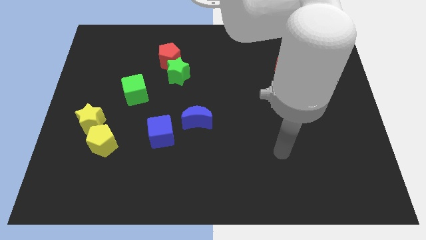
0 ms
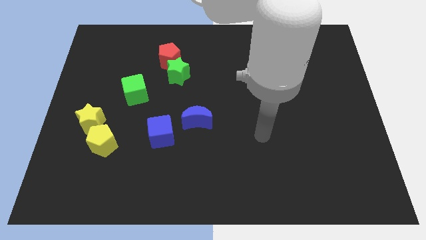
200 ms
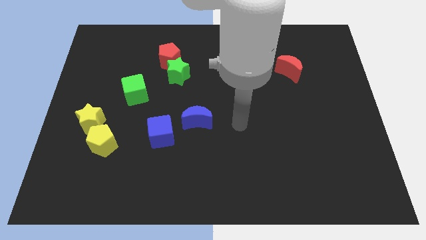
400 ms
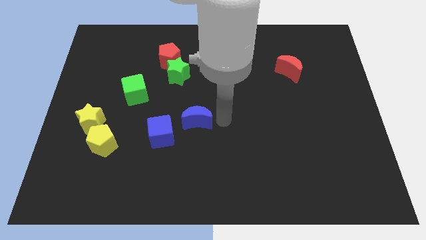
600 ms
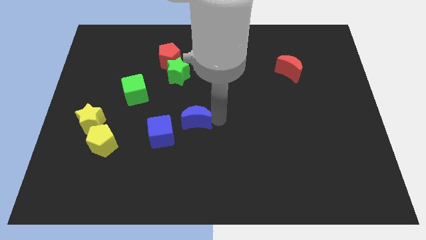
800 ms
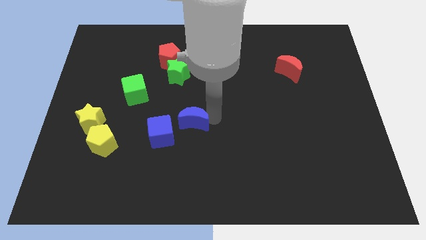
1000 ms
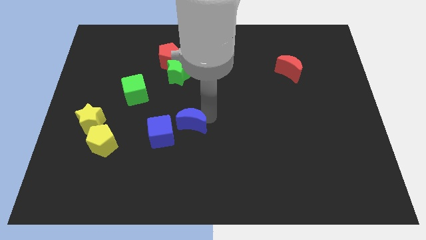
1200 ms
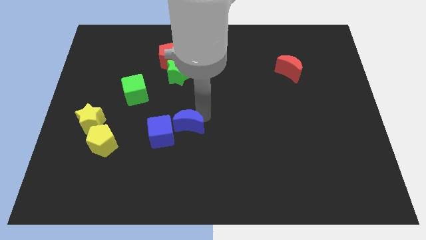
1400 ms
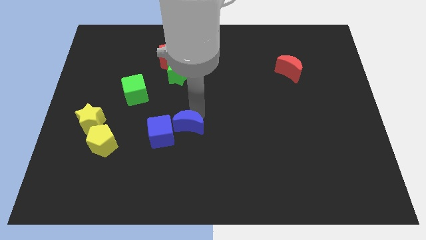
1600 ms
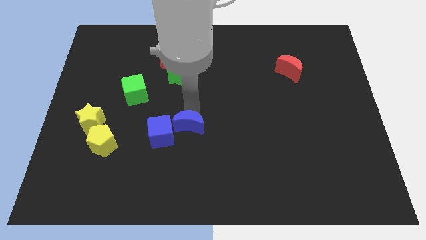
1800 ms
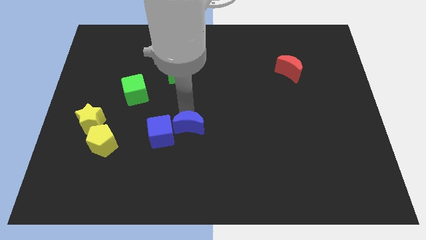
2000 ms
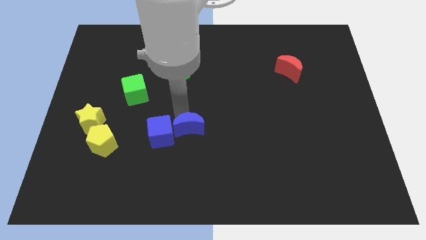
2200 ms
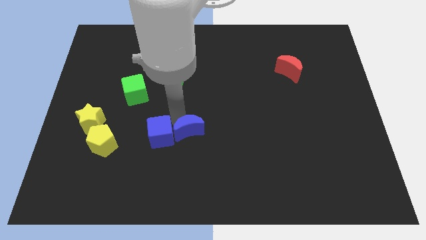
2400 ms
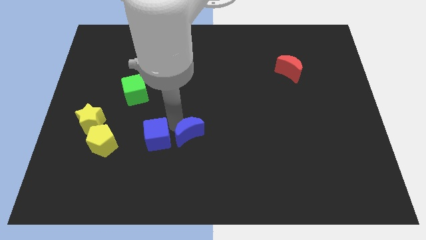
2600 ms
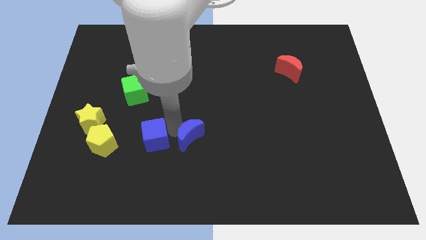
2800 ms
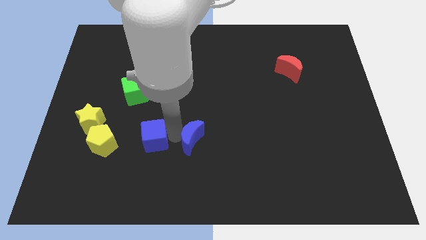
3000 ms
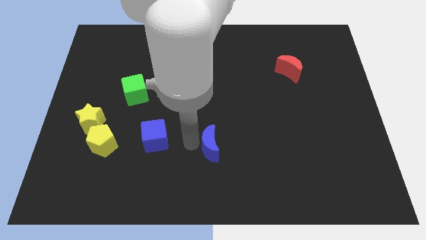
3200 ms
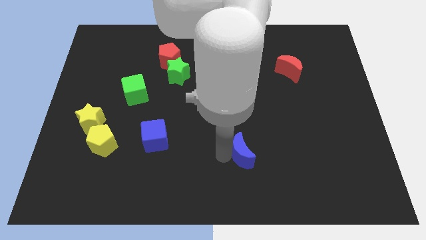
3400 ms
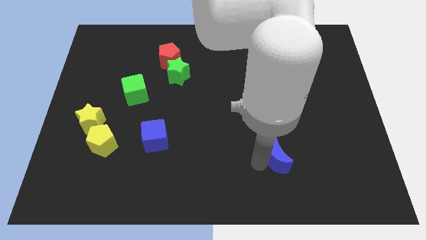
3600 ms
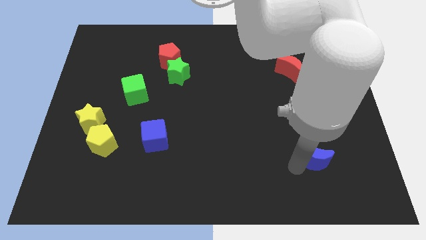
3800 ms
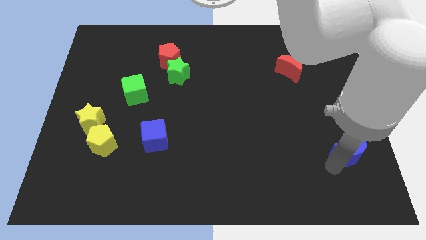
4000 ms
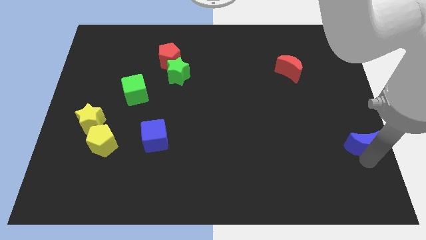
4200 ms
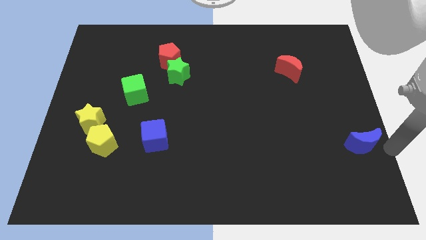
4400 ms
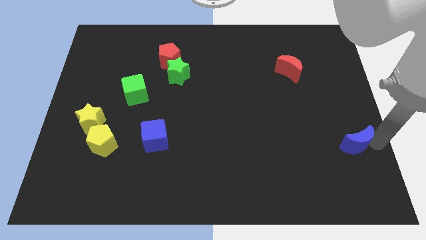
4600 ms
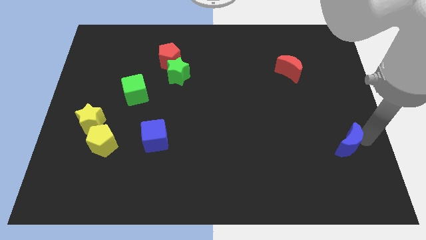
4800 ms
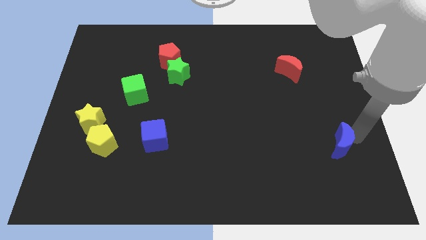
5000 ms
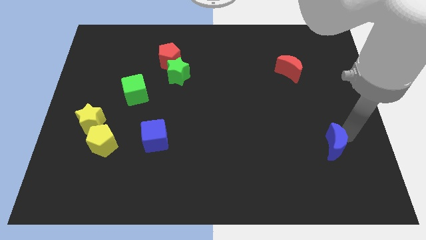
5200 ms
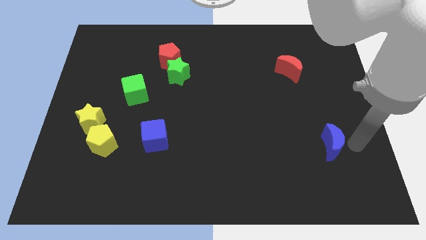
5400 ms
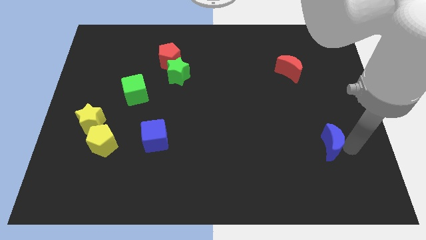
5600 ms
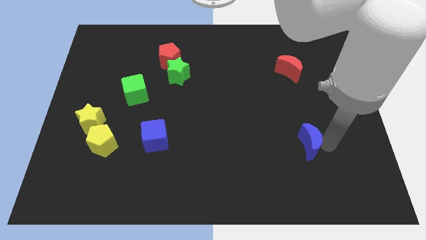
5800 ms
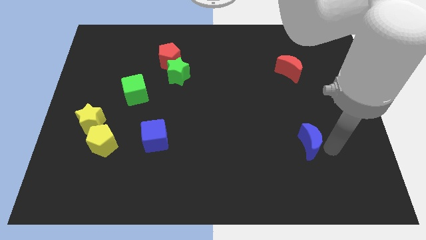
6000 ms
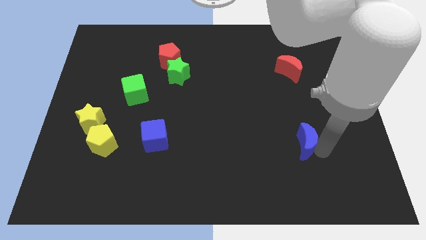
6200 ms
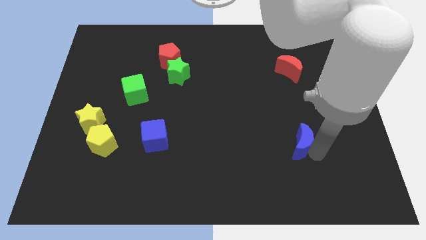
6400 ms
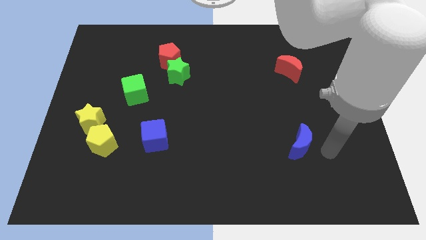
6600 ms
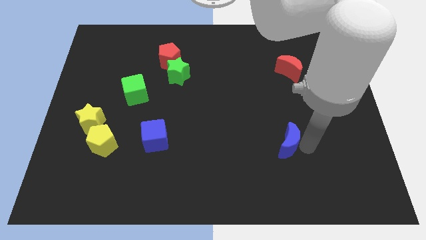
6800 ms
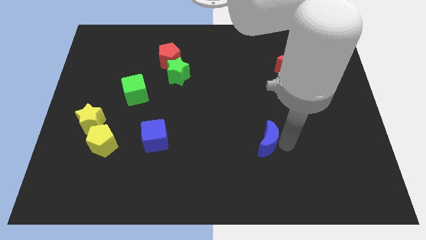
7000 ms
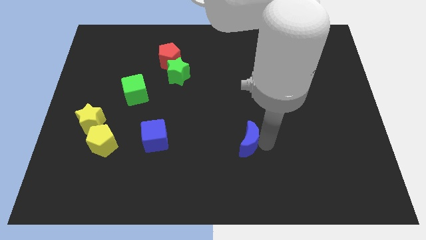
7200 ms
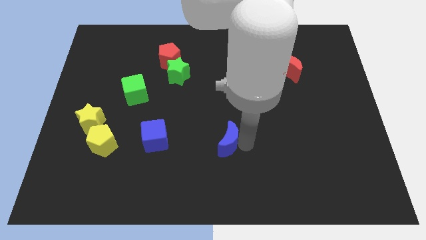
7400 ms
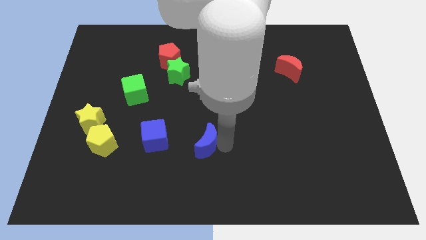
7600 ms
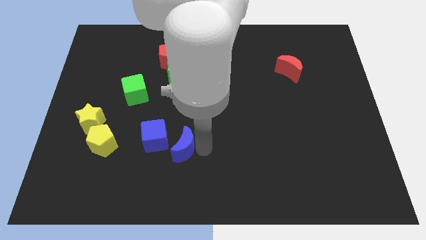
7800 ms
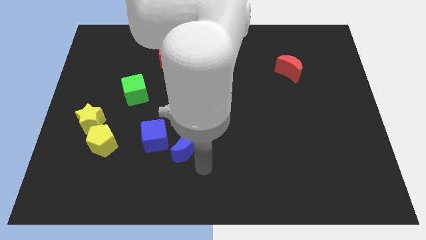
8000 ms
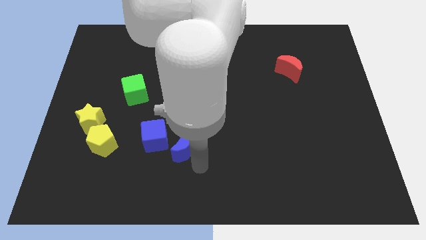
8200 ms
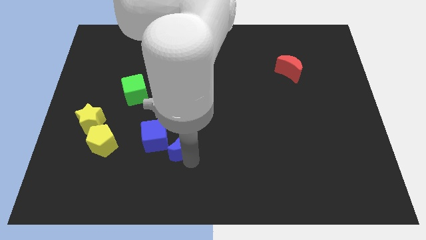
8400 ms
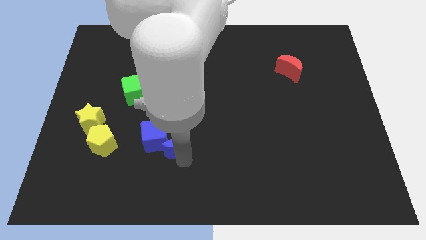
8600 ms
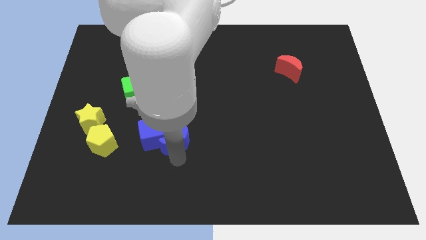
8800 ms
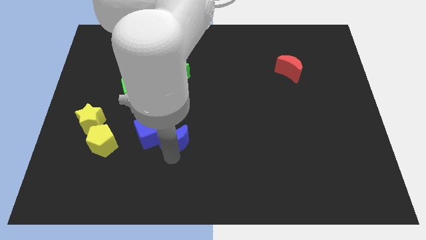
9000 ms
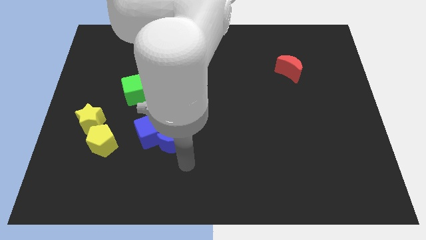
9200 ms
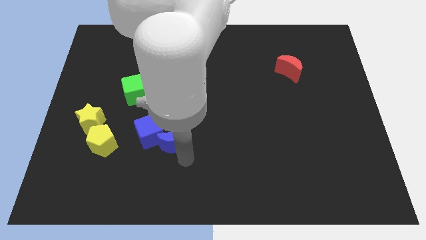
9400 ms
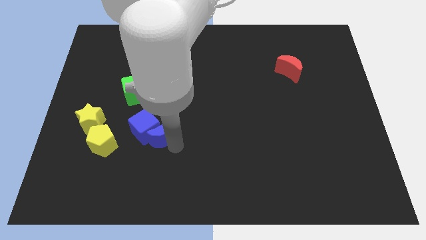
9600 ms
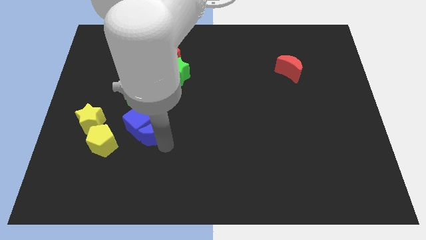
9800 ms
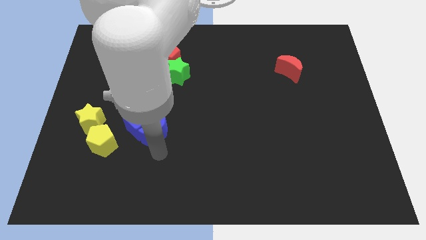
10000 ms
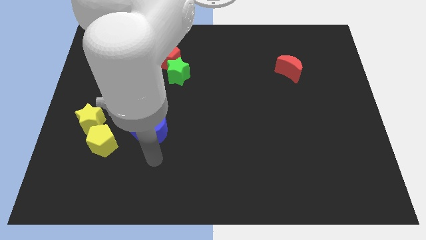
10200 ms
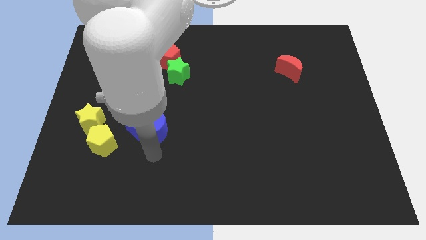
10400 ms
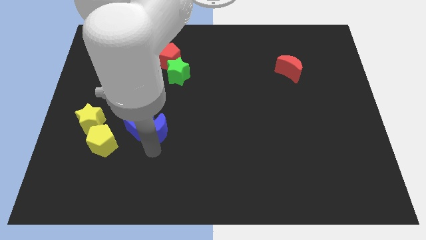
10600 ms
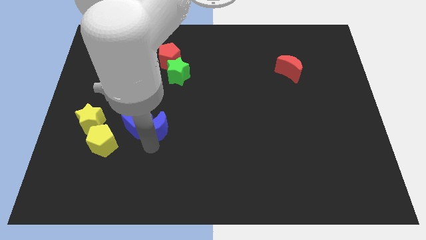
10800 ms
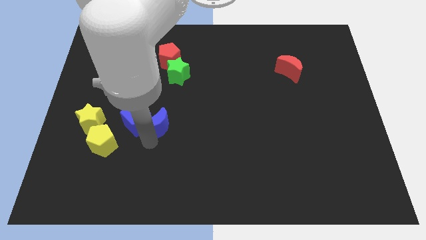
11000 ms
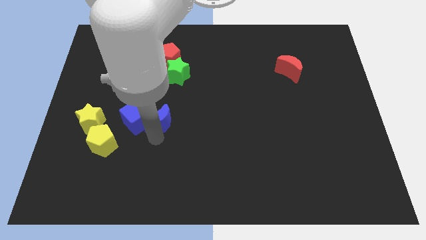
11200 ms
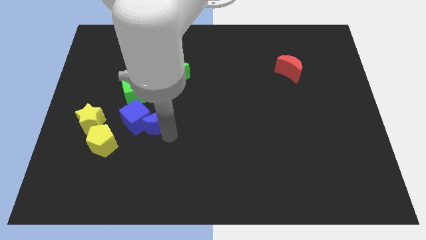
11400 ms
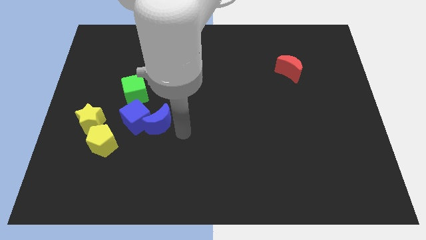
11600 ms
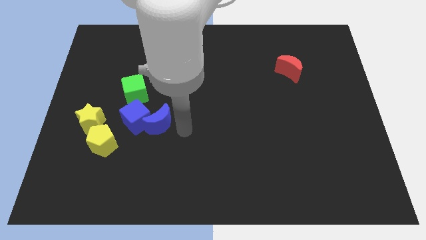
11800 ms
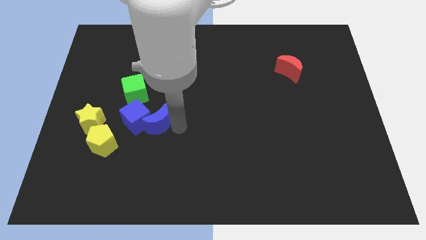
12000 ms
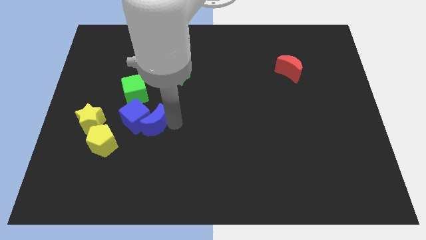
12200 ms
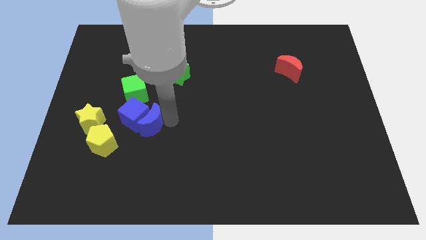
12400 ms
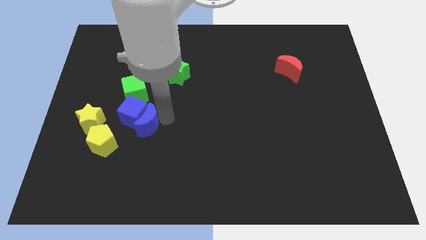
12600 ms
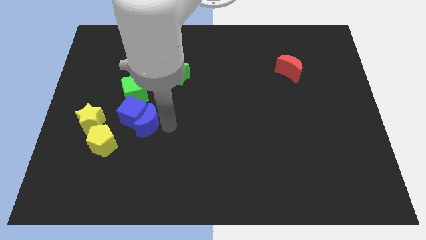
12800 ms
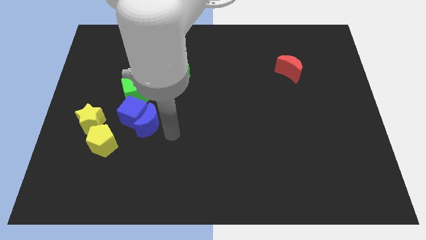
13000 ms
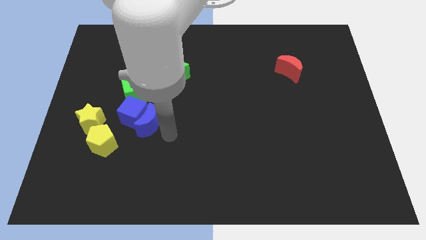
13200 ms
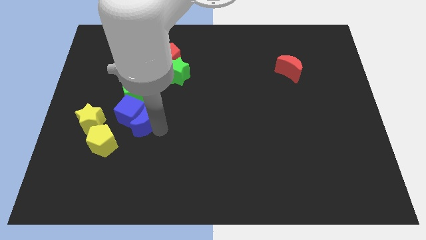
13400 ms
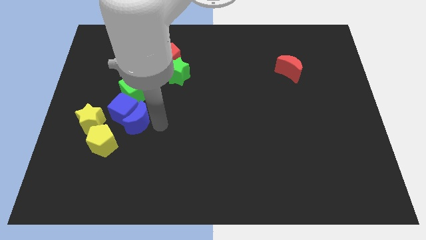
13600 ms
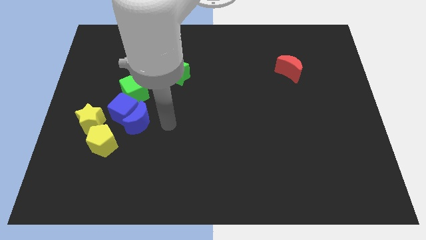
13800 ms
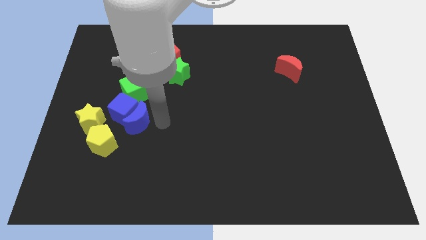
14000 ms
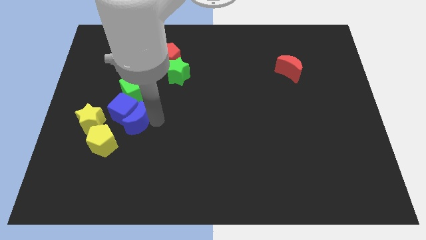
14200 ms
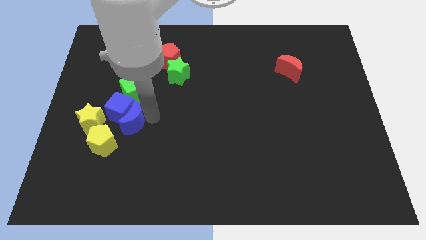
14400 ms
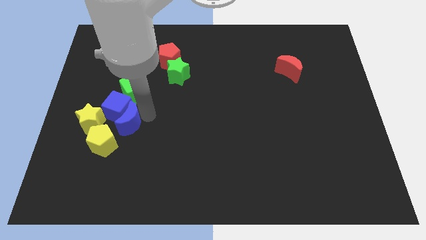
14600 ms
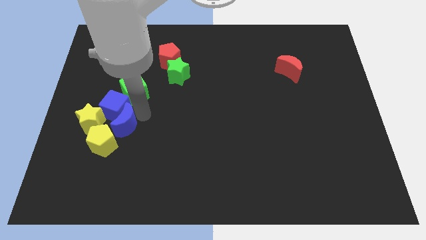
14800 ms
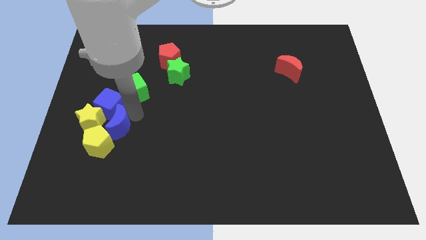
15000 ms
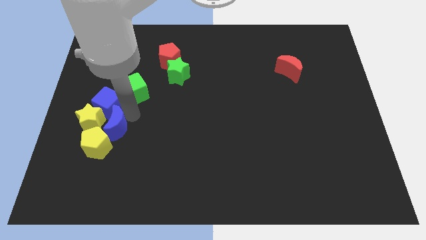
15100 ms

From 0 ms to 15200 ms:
push the blue moon to the yellow star
